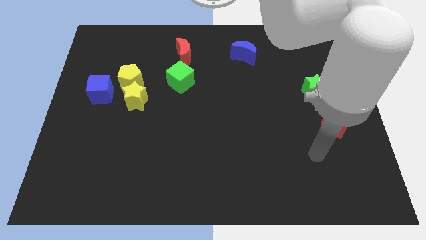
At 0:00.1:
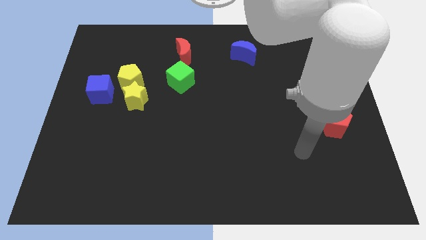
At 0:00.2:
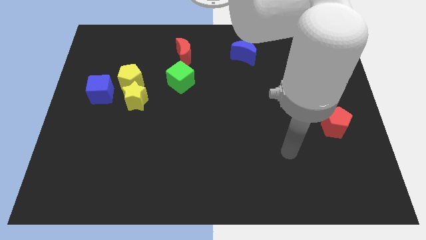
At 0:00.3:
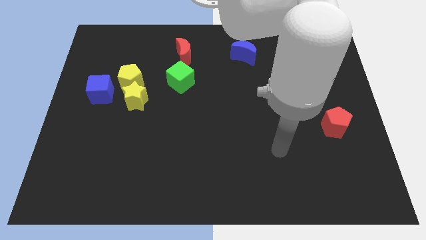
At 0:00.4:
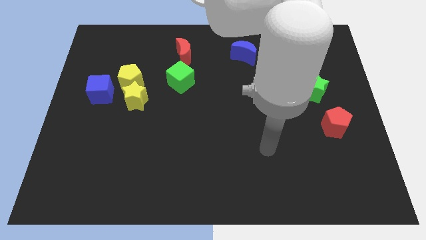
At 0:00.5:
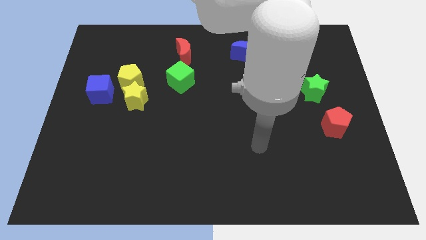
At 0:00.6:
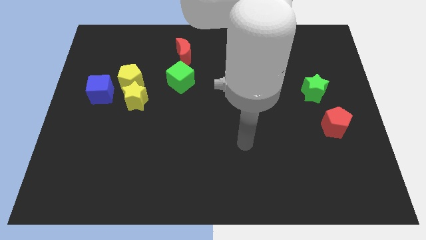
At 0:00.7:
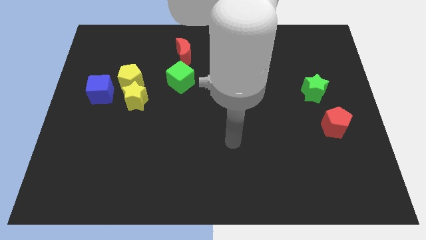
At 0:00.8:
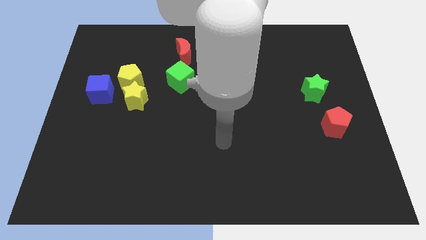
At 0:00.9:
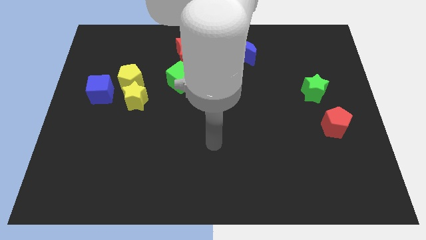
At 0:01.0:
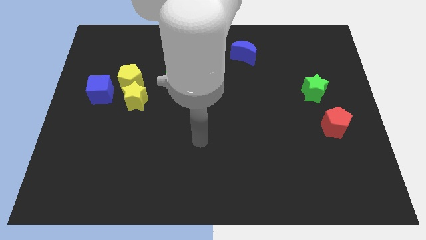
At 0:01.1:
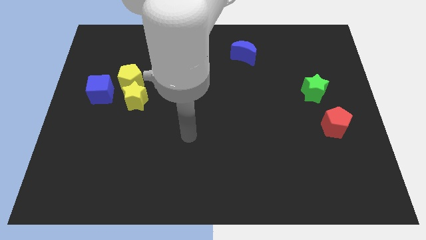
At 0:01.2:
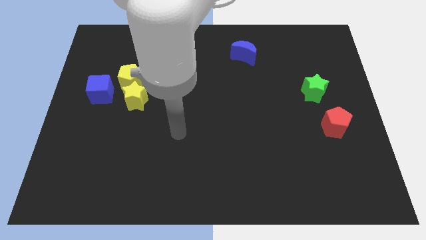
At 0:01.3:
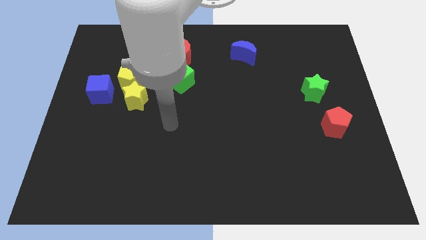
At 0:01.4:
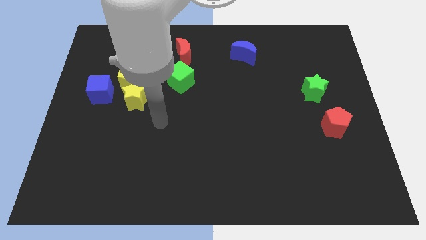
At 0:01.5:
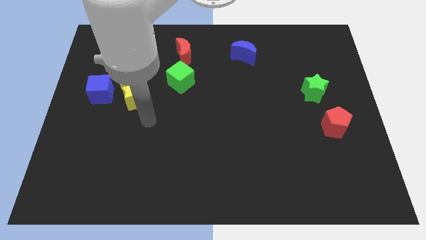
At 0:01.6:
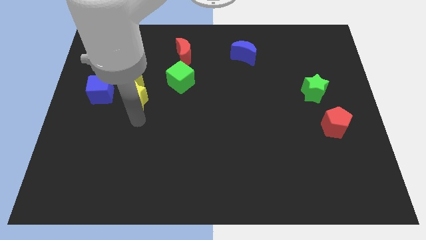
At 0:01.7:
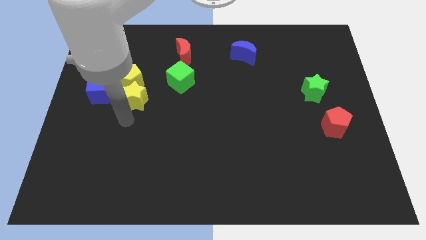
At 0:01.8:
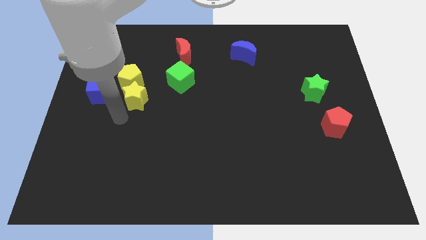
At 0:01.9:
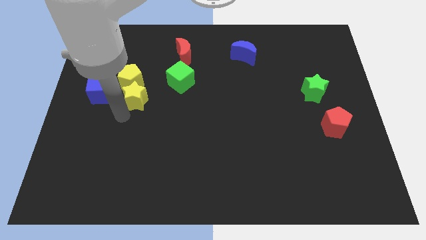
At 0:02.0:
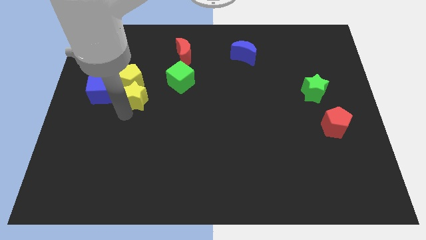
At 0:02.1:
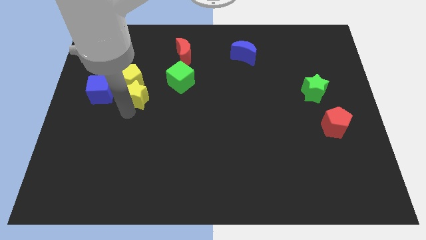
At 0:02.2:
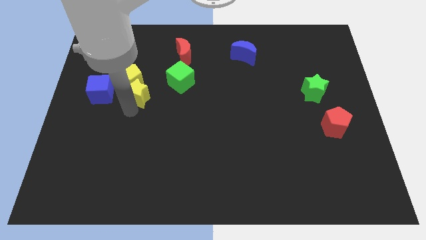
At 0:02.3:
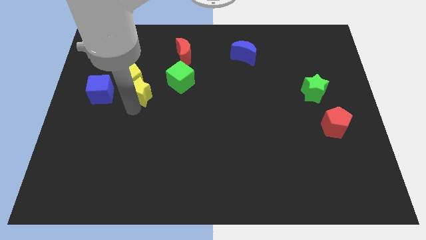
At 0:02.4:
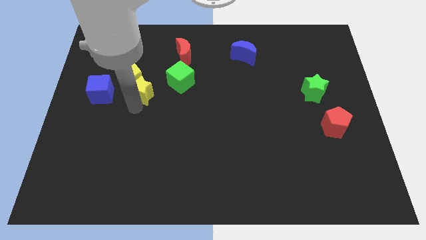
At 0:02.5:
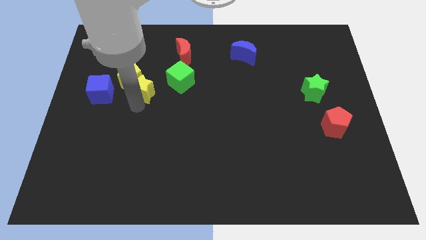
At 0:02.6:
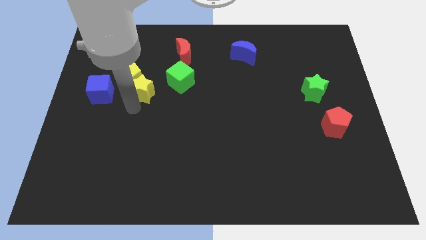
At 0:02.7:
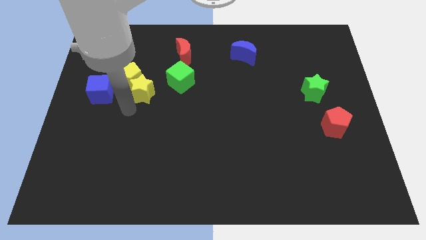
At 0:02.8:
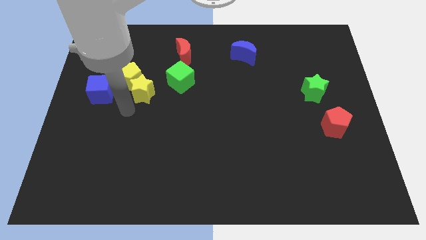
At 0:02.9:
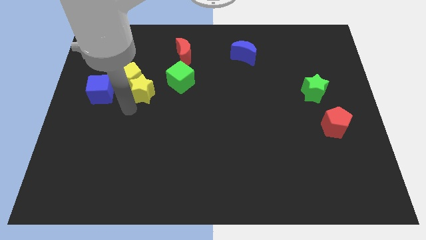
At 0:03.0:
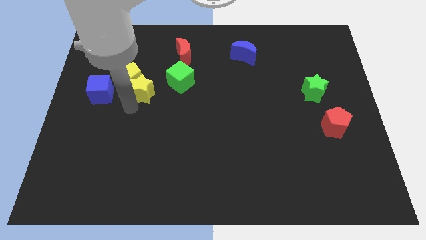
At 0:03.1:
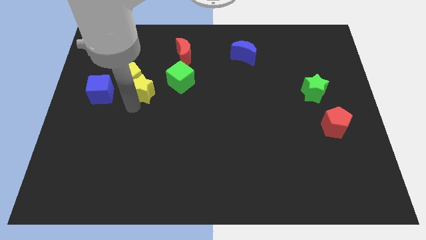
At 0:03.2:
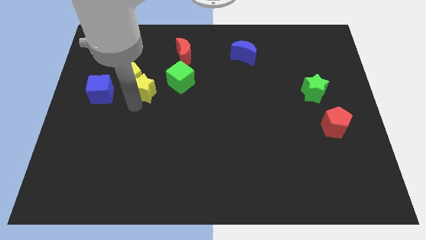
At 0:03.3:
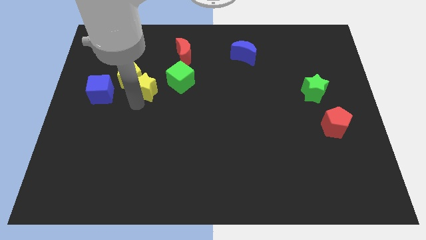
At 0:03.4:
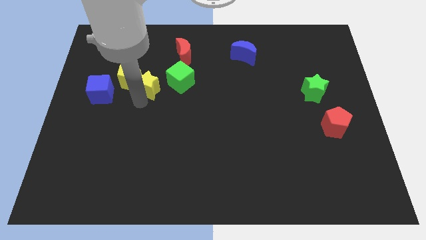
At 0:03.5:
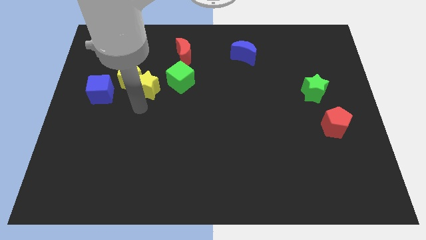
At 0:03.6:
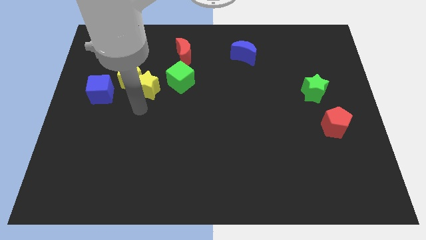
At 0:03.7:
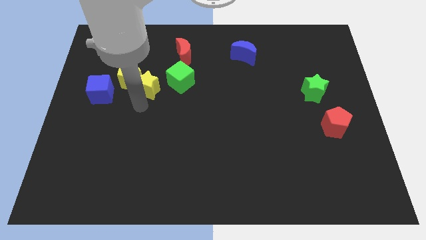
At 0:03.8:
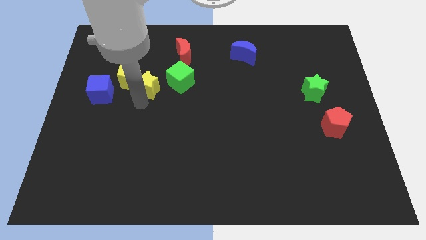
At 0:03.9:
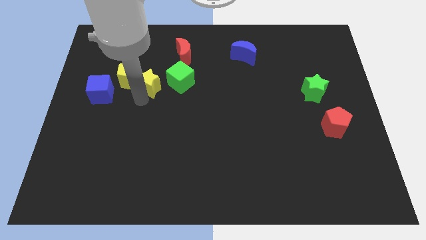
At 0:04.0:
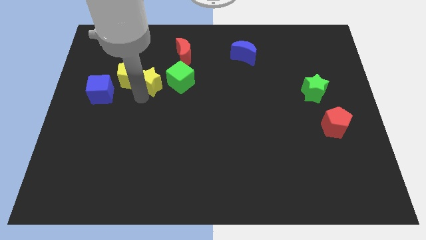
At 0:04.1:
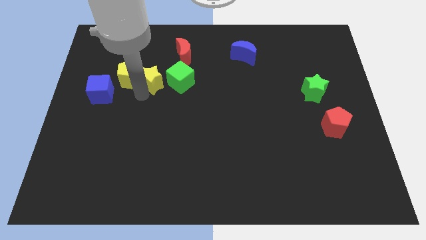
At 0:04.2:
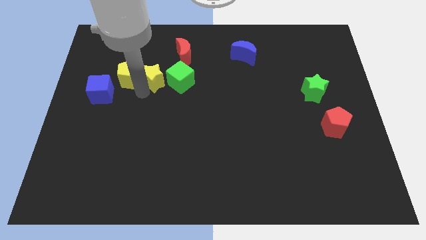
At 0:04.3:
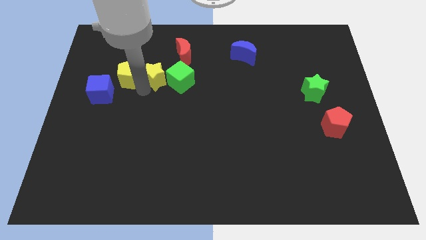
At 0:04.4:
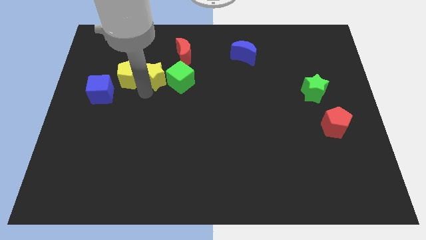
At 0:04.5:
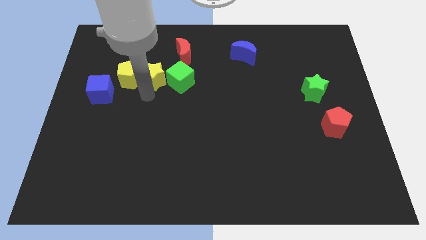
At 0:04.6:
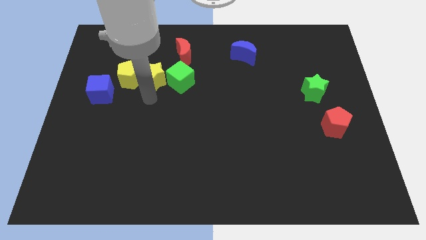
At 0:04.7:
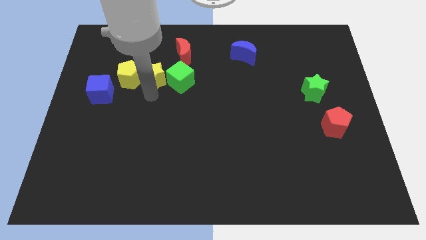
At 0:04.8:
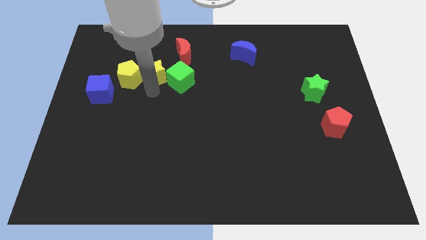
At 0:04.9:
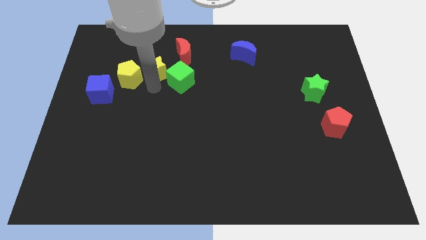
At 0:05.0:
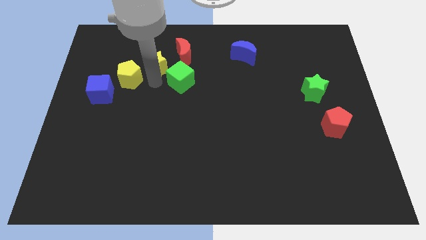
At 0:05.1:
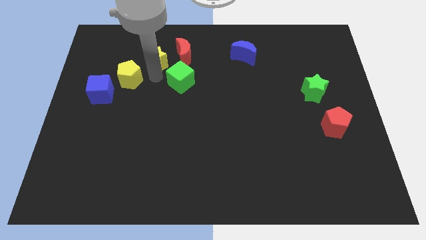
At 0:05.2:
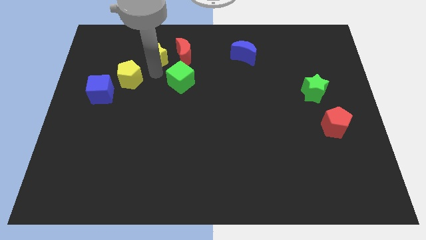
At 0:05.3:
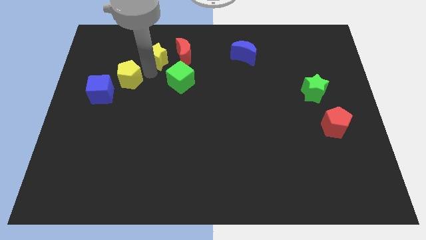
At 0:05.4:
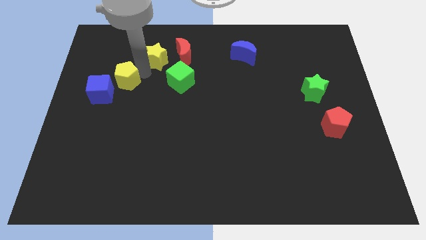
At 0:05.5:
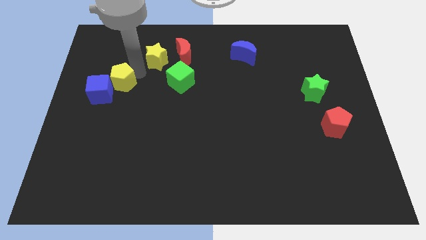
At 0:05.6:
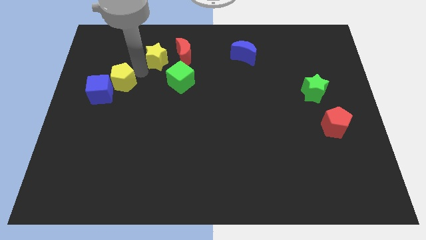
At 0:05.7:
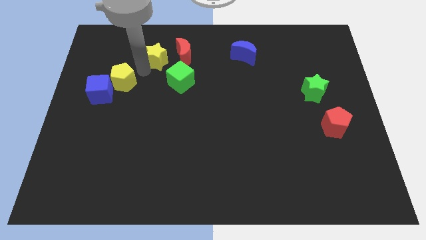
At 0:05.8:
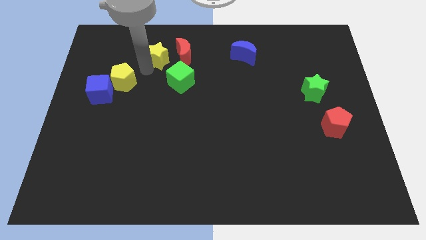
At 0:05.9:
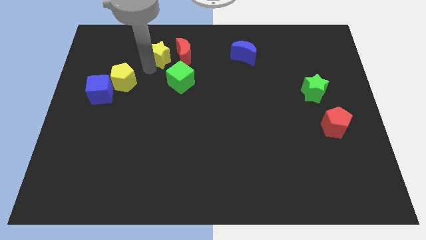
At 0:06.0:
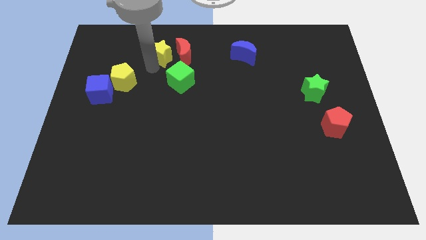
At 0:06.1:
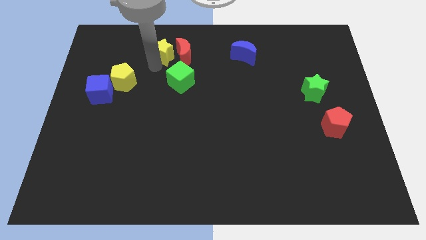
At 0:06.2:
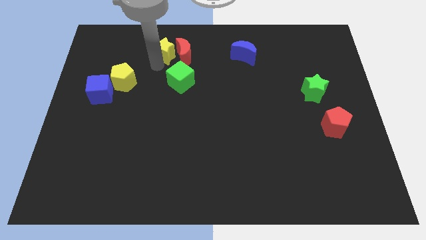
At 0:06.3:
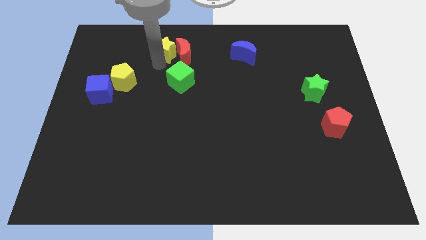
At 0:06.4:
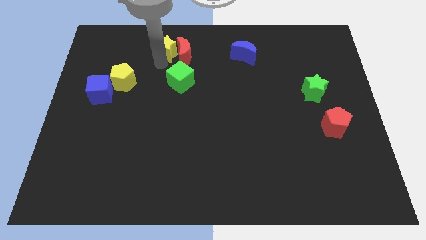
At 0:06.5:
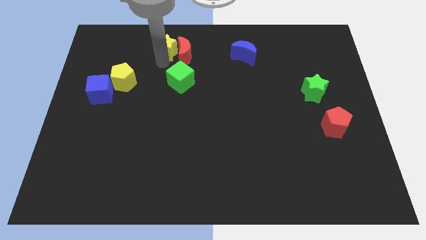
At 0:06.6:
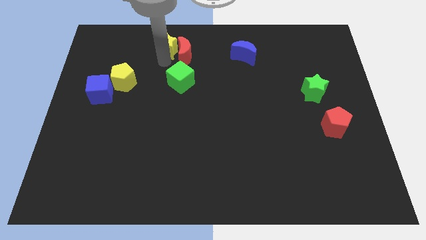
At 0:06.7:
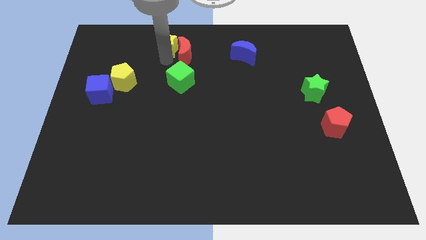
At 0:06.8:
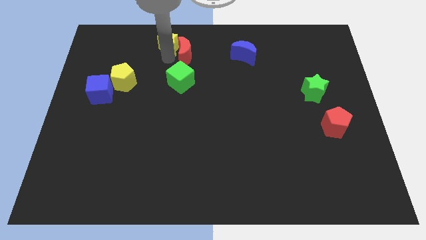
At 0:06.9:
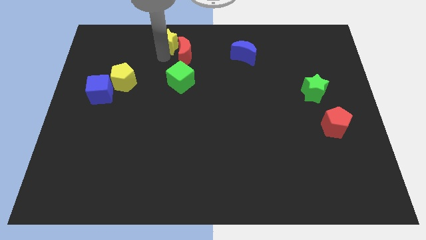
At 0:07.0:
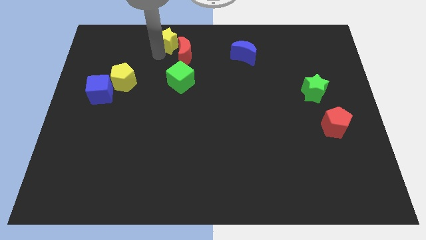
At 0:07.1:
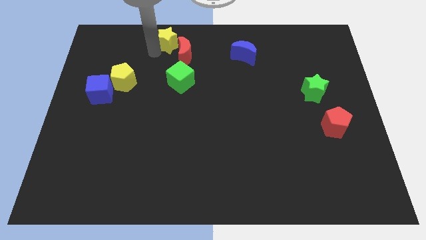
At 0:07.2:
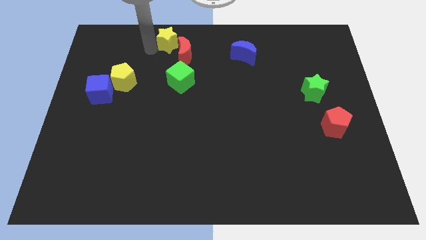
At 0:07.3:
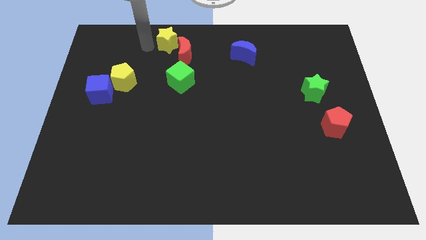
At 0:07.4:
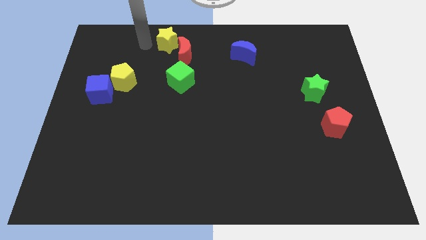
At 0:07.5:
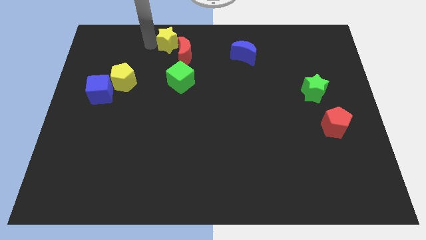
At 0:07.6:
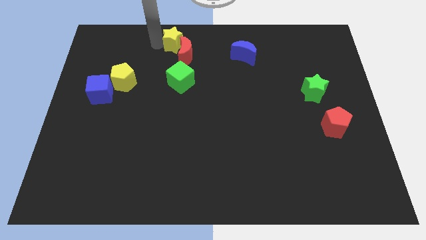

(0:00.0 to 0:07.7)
move the yellow star to the top side
